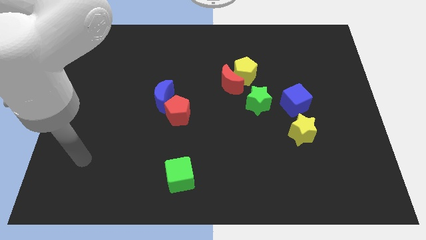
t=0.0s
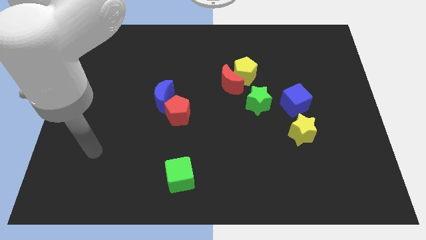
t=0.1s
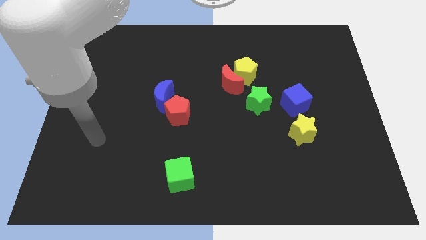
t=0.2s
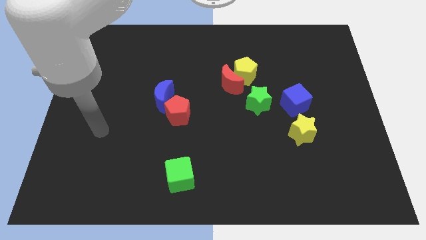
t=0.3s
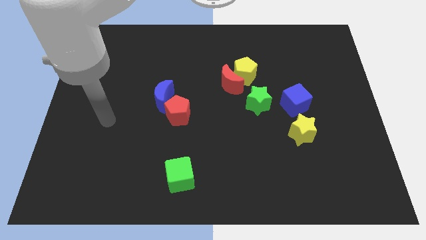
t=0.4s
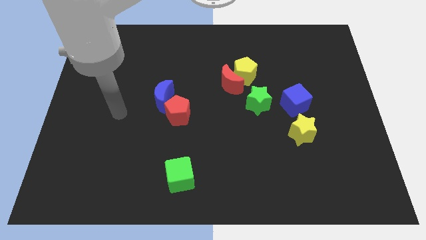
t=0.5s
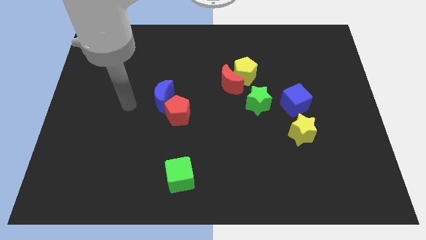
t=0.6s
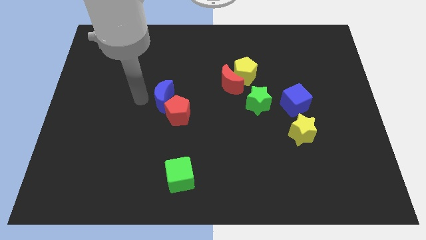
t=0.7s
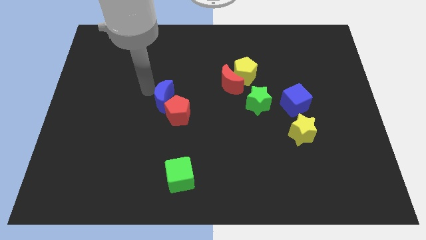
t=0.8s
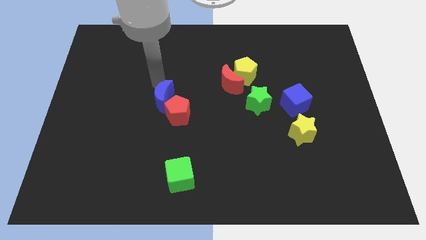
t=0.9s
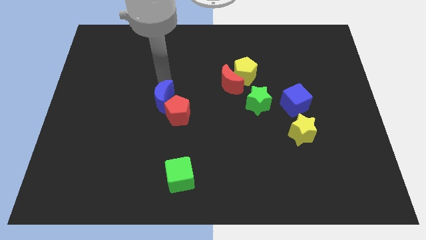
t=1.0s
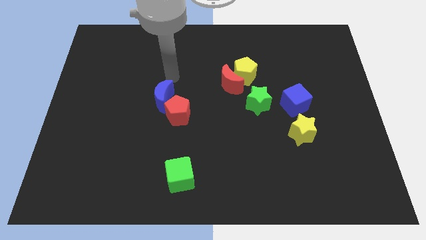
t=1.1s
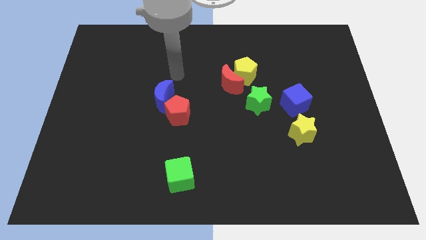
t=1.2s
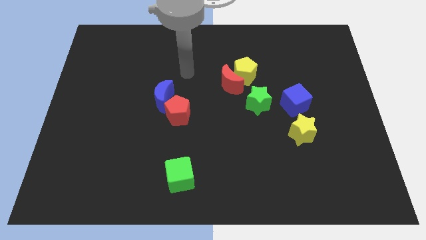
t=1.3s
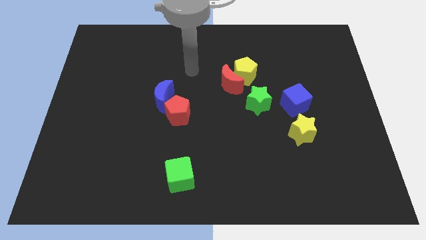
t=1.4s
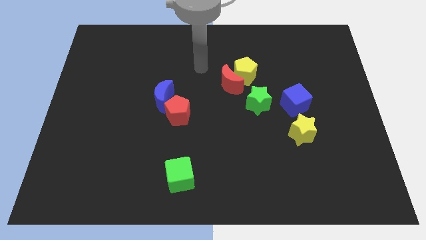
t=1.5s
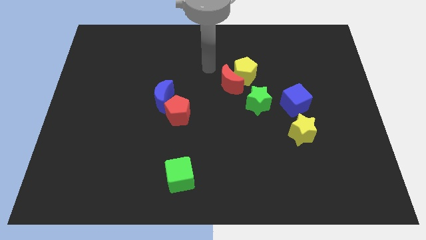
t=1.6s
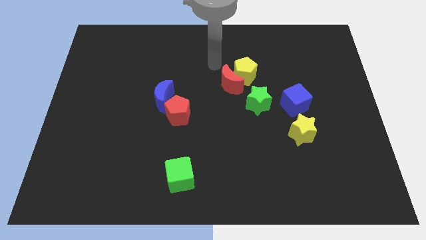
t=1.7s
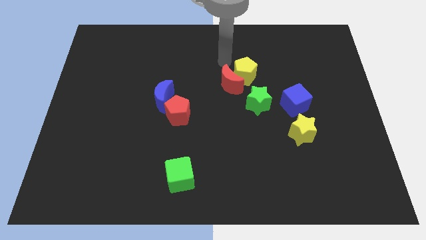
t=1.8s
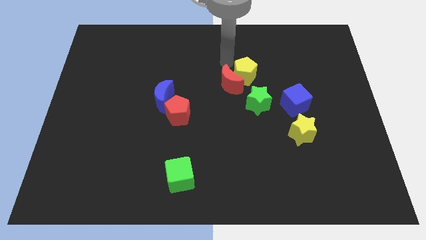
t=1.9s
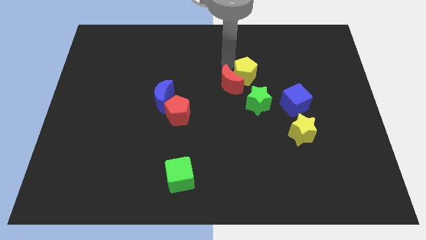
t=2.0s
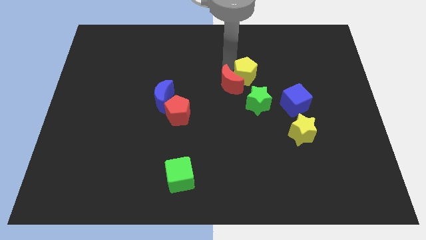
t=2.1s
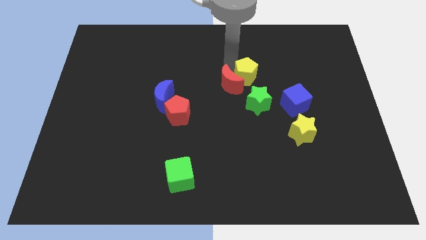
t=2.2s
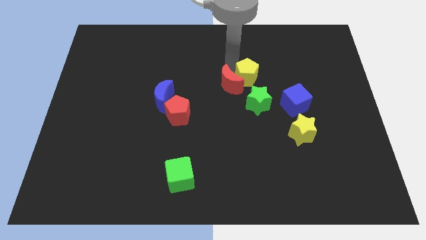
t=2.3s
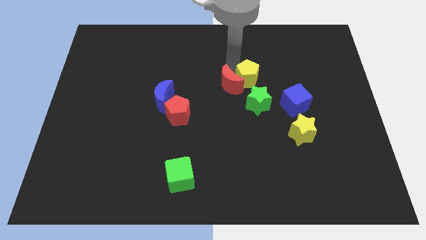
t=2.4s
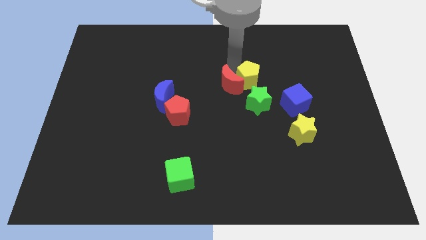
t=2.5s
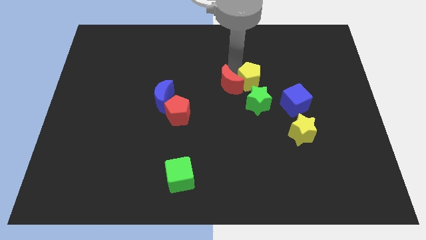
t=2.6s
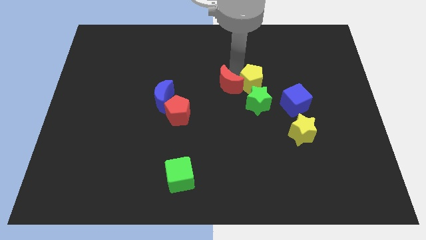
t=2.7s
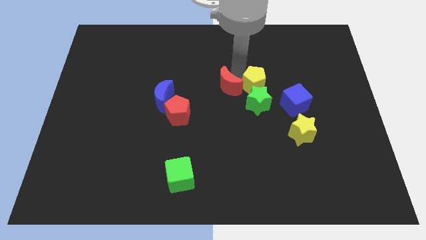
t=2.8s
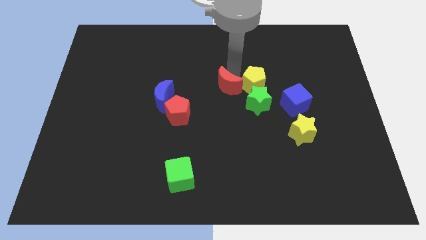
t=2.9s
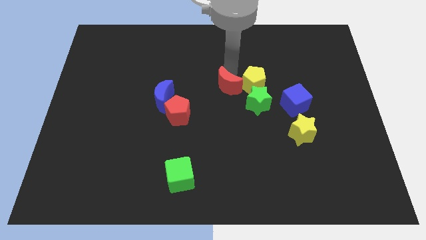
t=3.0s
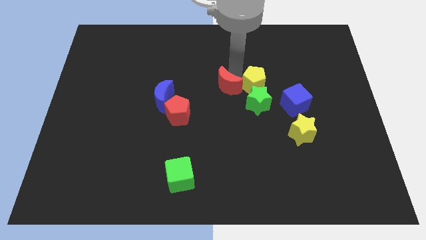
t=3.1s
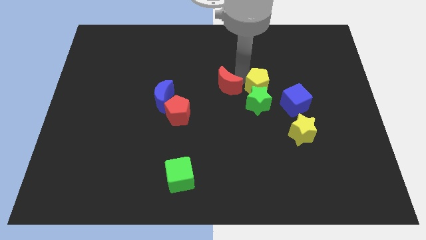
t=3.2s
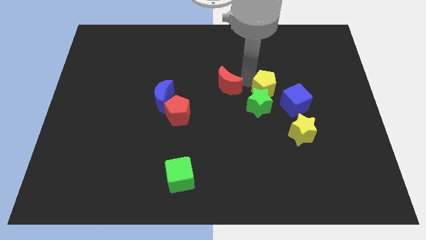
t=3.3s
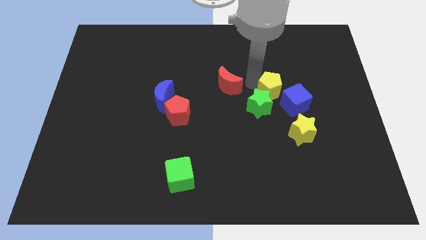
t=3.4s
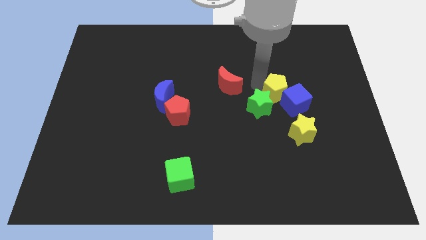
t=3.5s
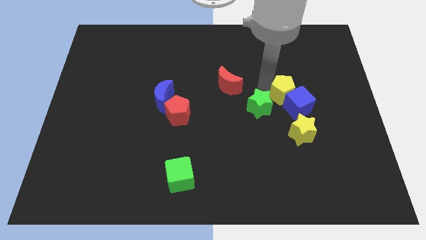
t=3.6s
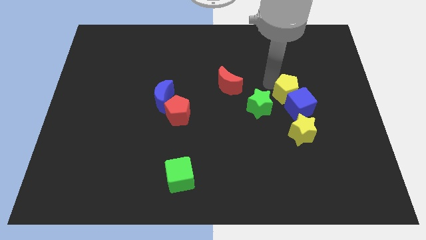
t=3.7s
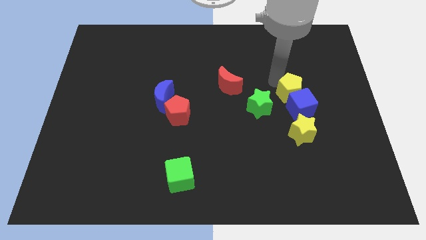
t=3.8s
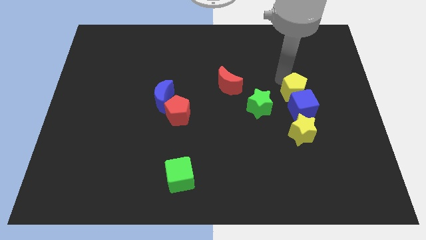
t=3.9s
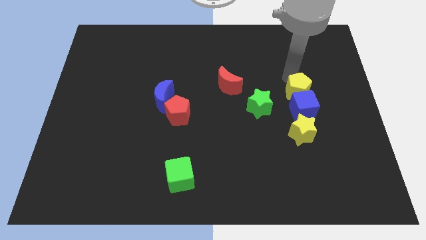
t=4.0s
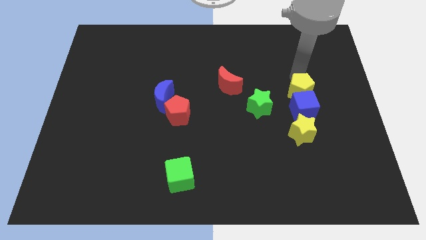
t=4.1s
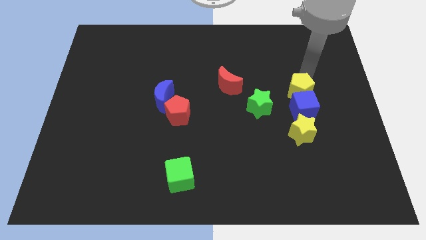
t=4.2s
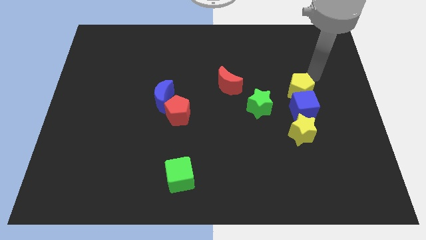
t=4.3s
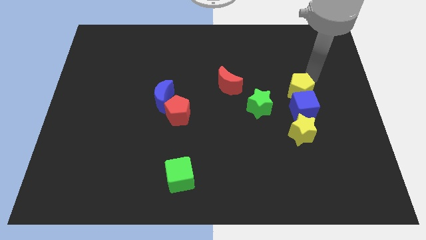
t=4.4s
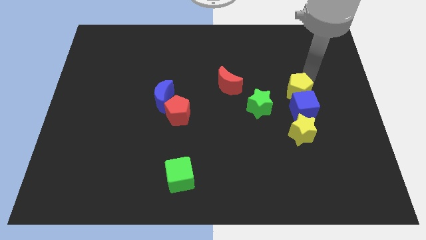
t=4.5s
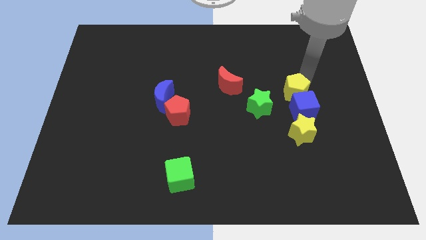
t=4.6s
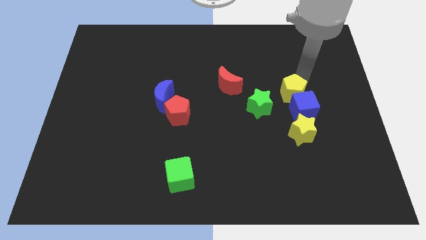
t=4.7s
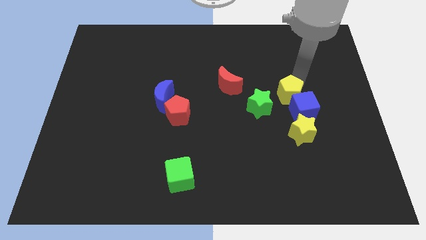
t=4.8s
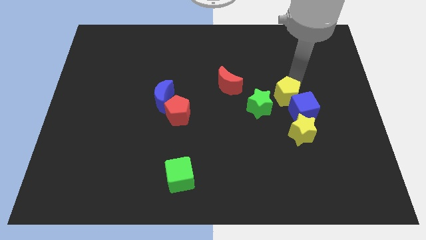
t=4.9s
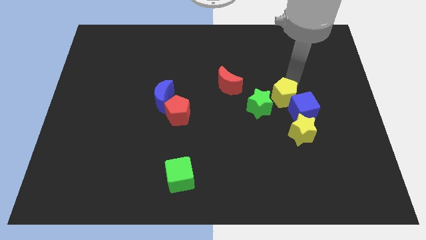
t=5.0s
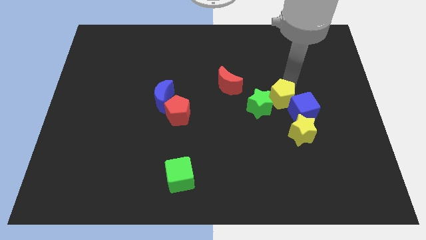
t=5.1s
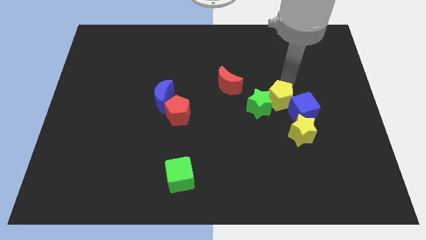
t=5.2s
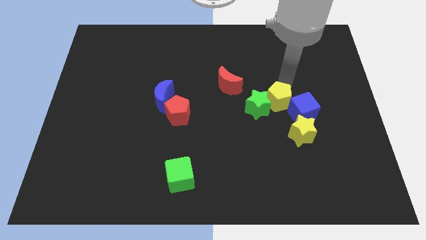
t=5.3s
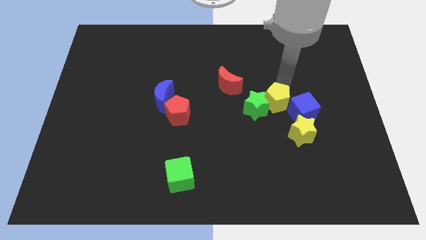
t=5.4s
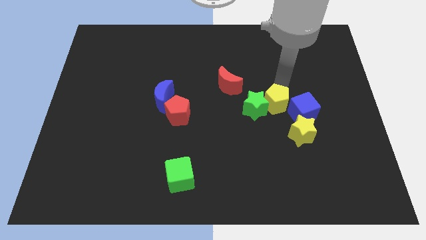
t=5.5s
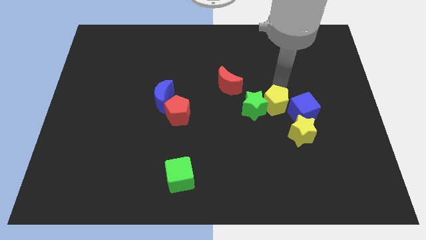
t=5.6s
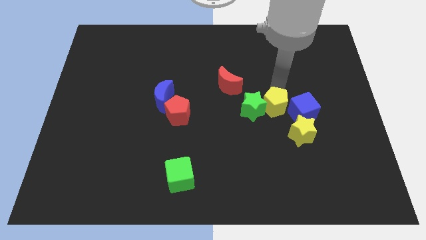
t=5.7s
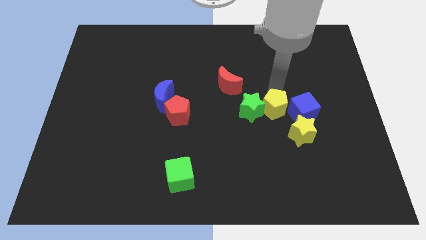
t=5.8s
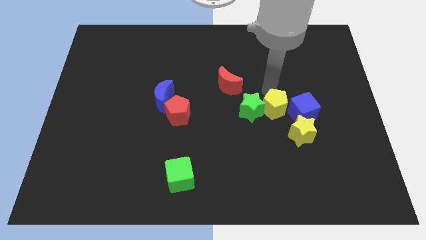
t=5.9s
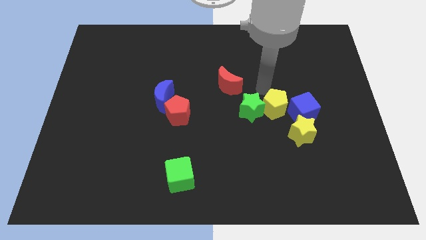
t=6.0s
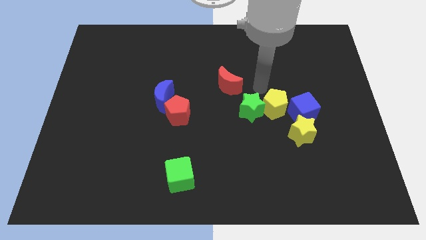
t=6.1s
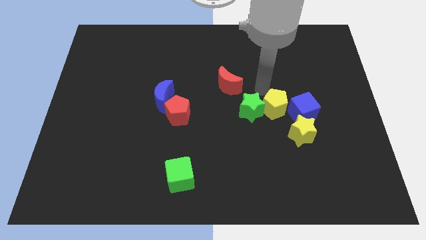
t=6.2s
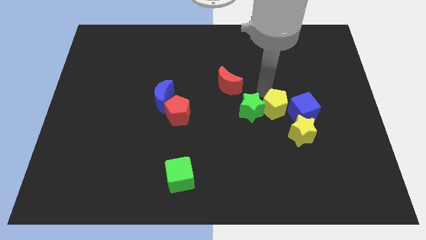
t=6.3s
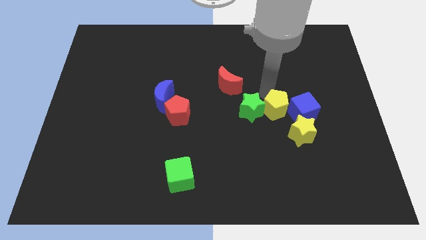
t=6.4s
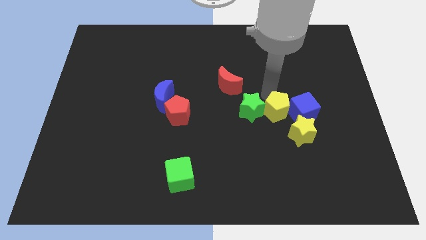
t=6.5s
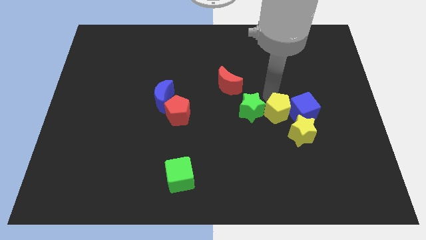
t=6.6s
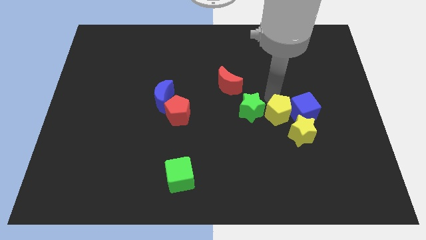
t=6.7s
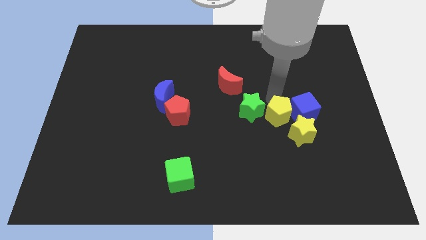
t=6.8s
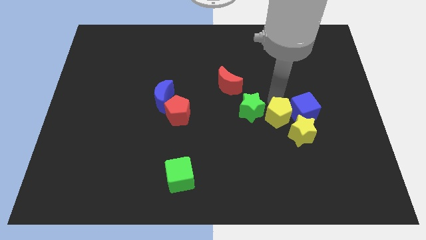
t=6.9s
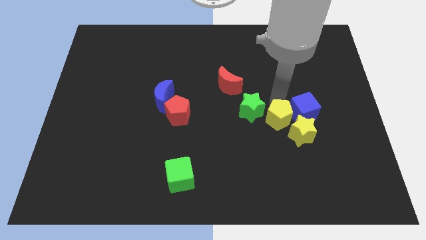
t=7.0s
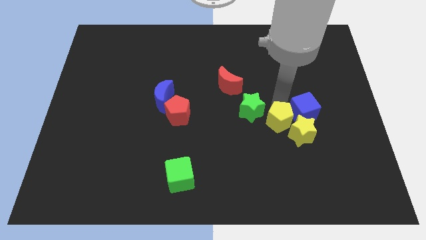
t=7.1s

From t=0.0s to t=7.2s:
move the yellow pentagon towards the yellow star
